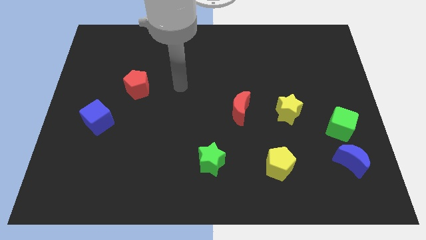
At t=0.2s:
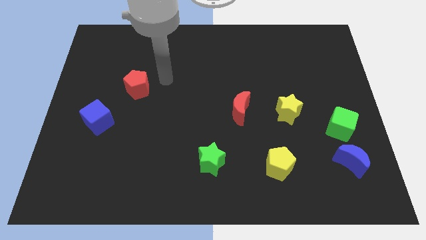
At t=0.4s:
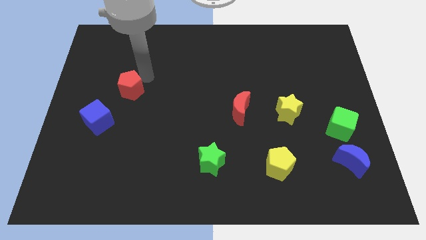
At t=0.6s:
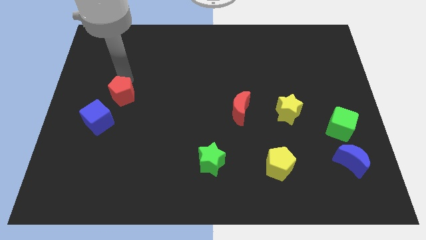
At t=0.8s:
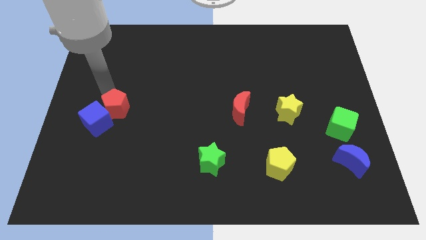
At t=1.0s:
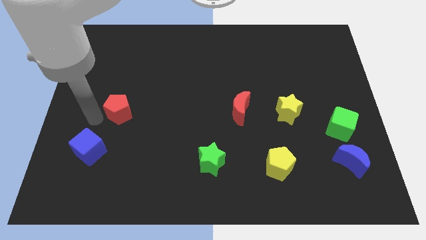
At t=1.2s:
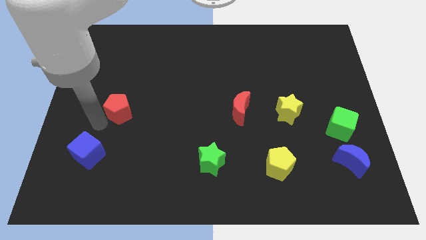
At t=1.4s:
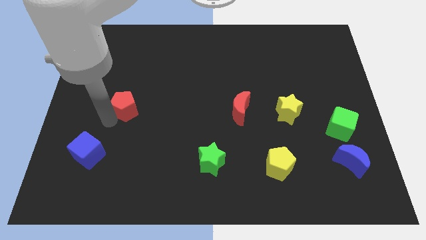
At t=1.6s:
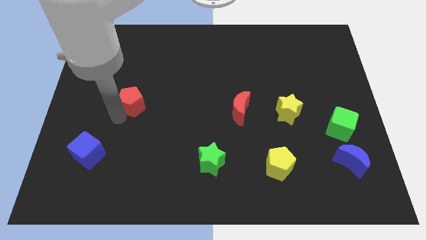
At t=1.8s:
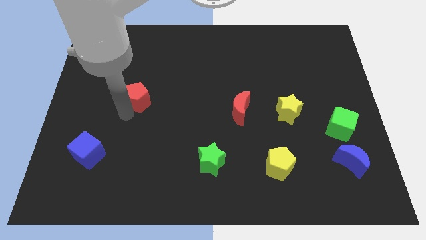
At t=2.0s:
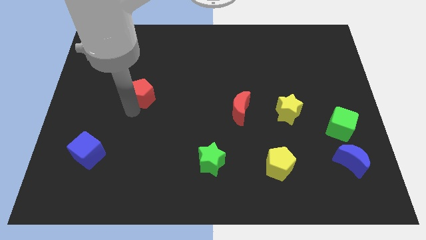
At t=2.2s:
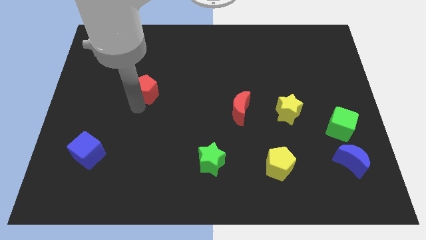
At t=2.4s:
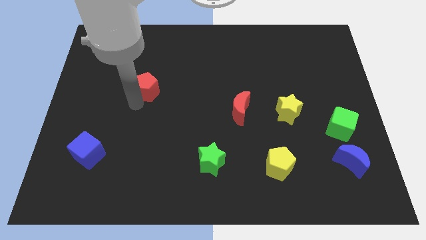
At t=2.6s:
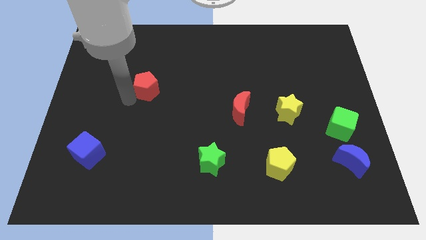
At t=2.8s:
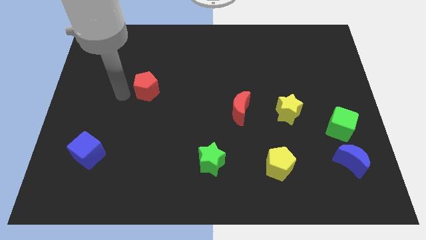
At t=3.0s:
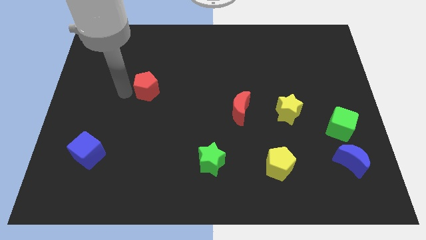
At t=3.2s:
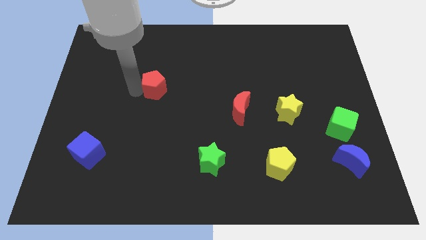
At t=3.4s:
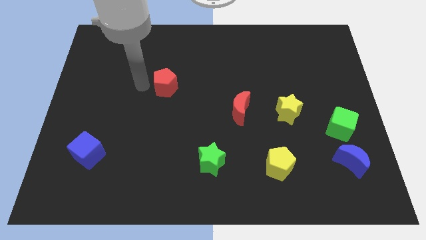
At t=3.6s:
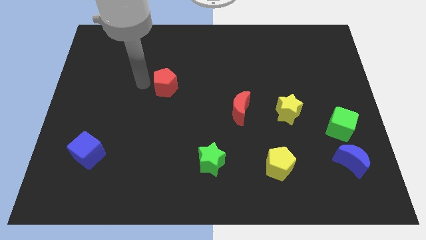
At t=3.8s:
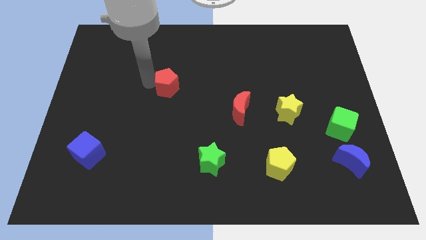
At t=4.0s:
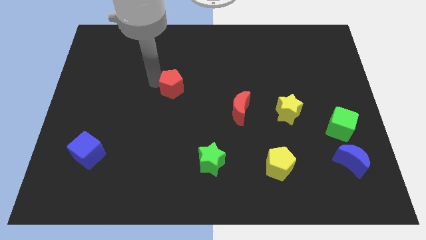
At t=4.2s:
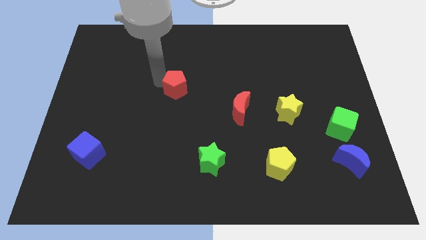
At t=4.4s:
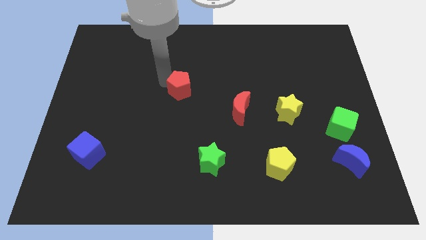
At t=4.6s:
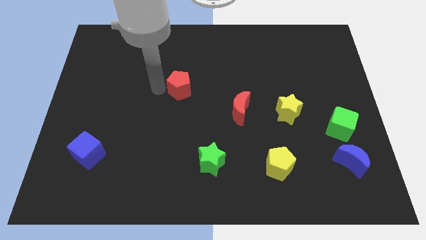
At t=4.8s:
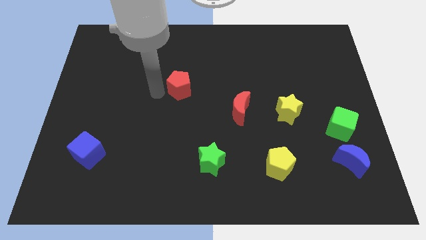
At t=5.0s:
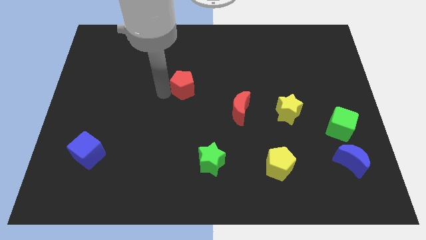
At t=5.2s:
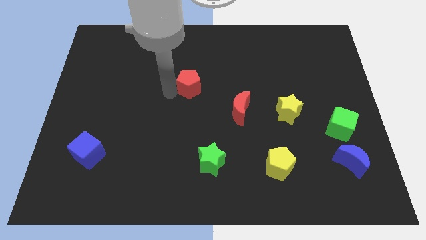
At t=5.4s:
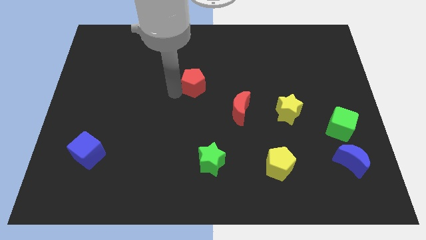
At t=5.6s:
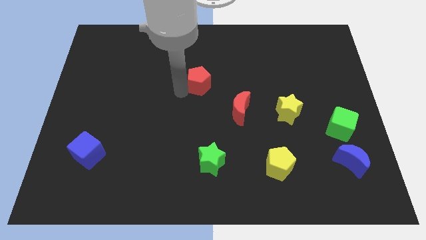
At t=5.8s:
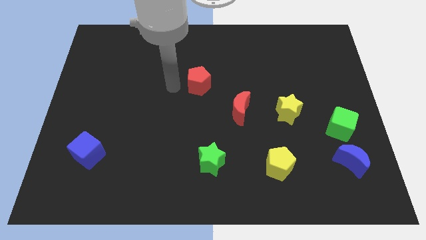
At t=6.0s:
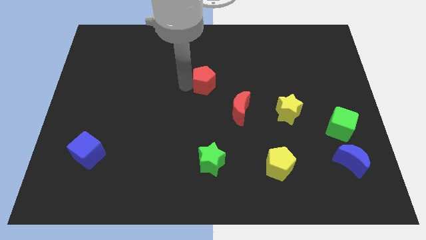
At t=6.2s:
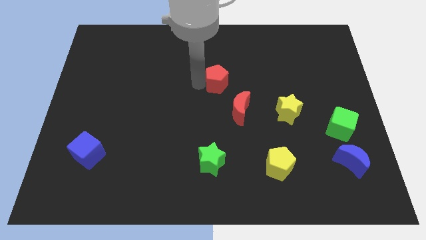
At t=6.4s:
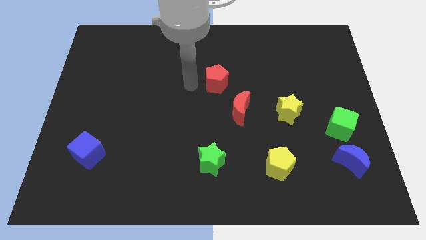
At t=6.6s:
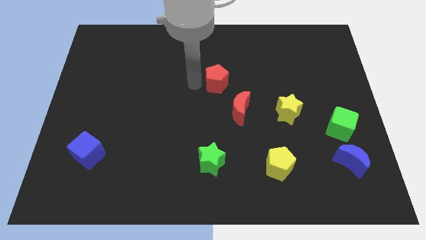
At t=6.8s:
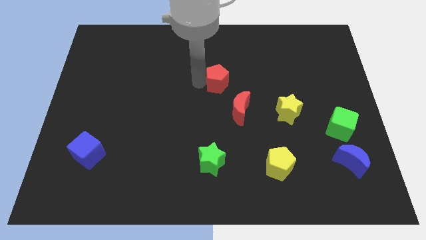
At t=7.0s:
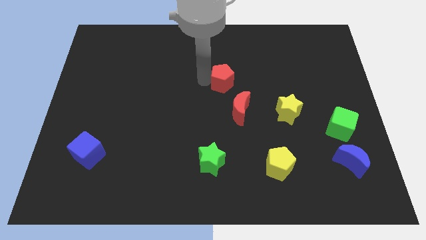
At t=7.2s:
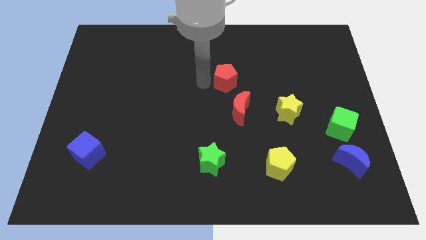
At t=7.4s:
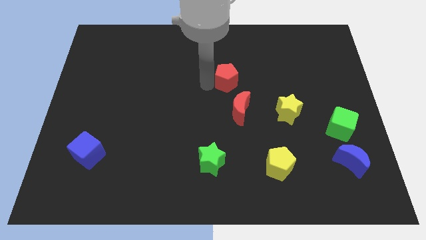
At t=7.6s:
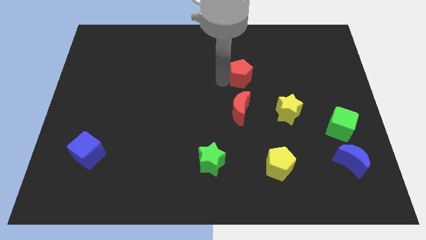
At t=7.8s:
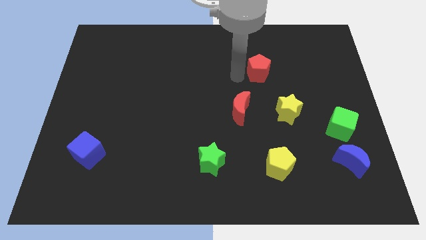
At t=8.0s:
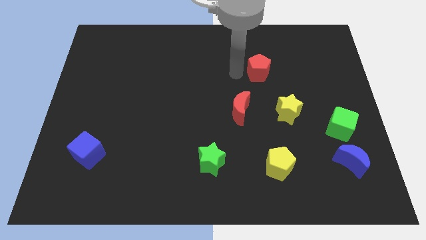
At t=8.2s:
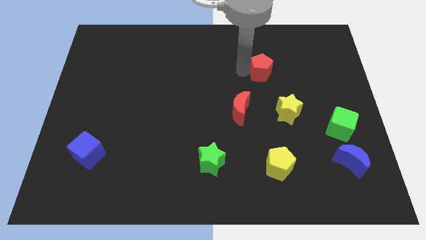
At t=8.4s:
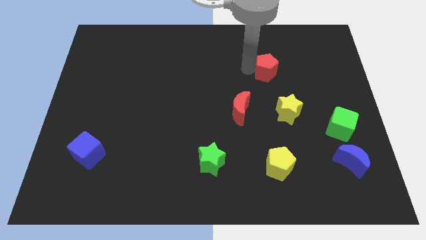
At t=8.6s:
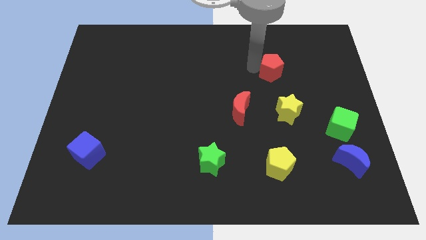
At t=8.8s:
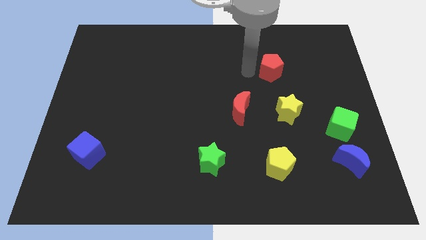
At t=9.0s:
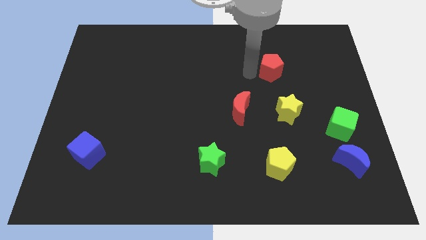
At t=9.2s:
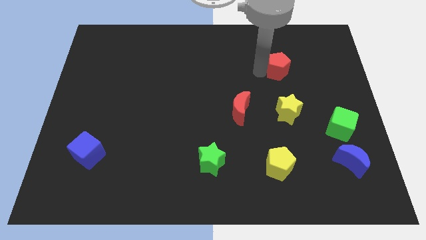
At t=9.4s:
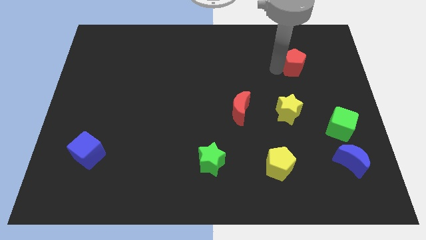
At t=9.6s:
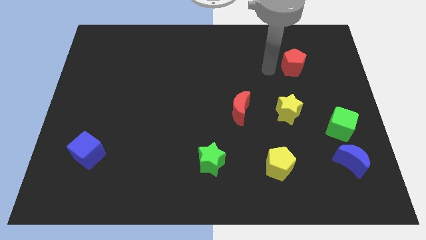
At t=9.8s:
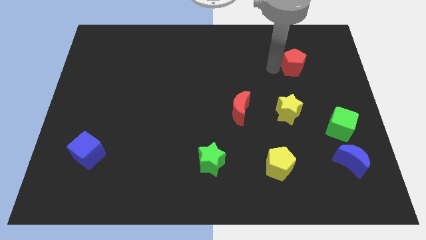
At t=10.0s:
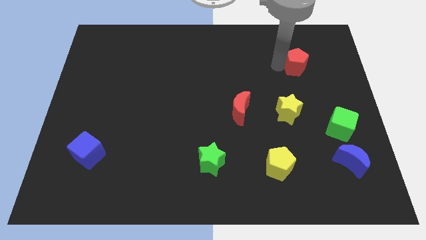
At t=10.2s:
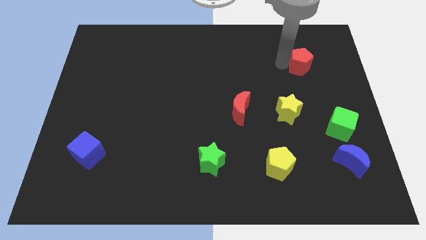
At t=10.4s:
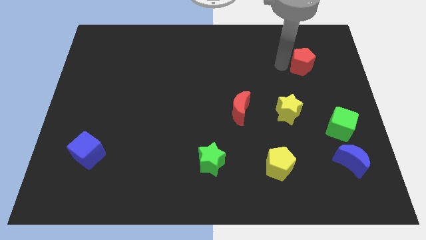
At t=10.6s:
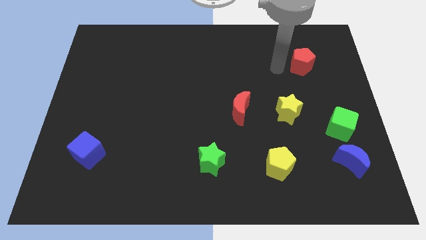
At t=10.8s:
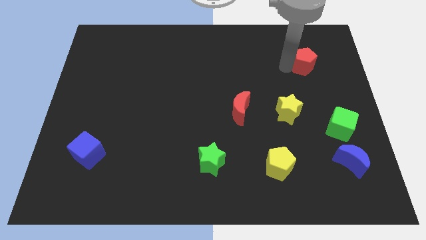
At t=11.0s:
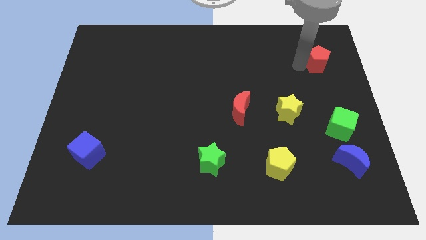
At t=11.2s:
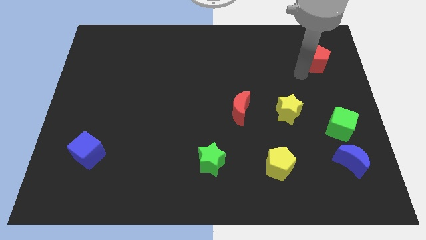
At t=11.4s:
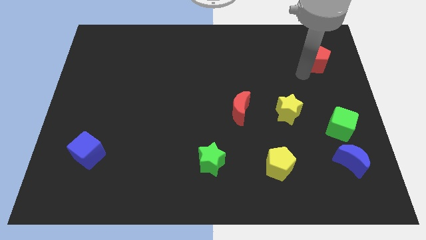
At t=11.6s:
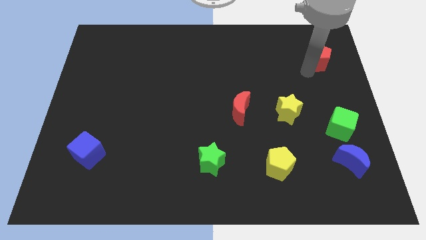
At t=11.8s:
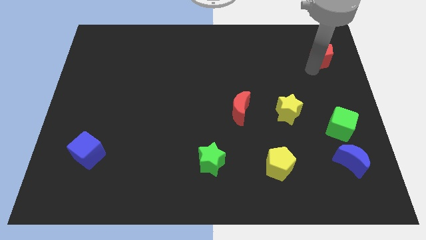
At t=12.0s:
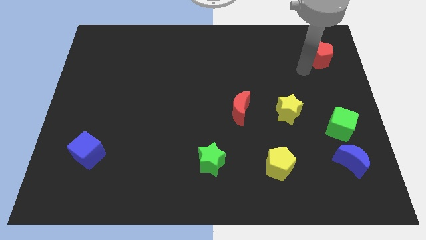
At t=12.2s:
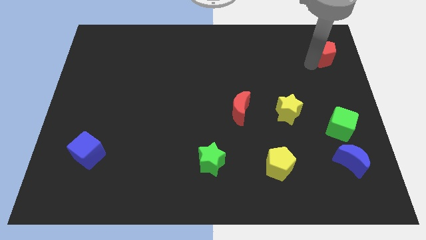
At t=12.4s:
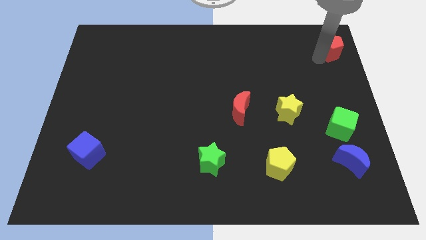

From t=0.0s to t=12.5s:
push the red pentagon to the upper right corner

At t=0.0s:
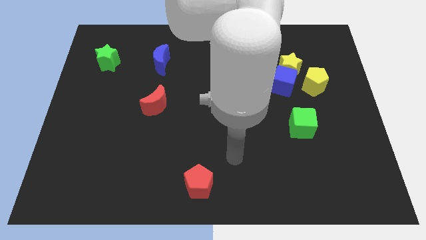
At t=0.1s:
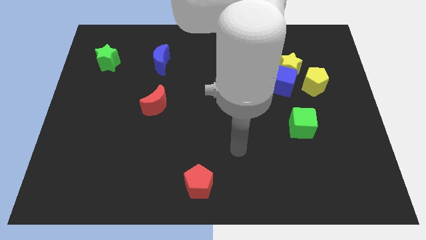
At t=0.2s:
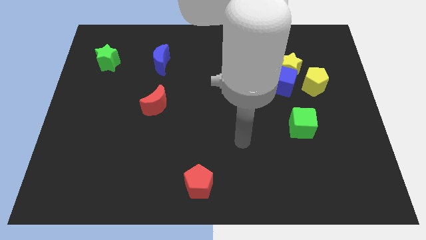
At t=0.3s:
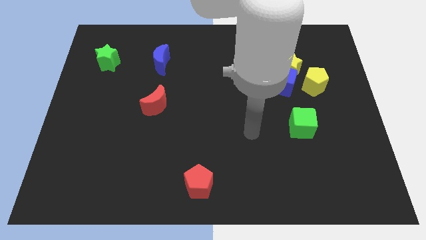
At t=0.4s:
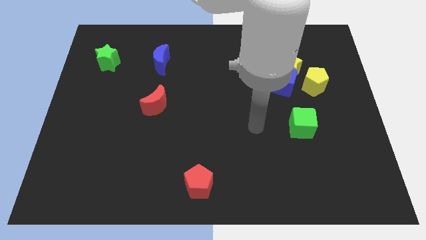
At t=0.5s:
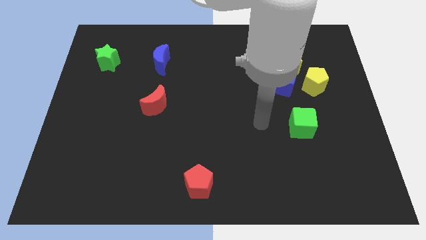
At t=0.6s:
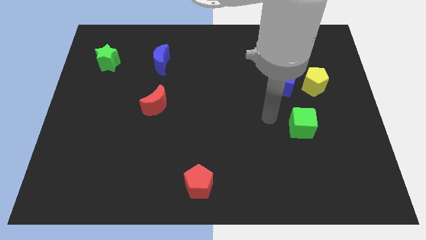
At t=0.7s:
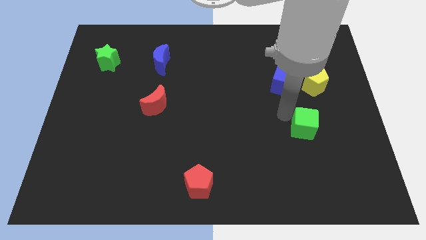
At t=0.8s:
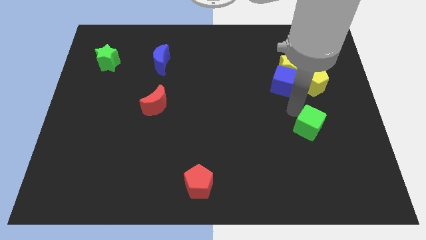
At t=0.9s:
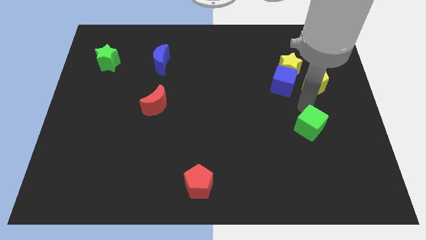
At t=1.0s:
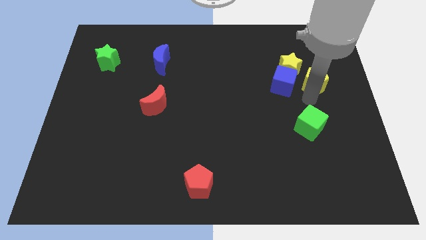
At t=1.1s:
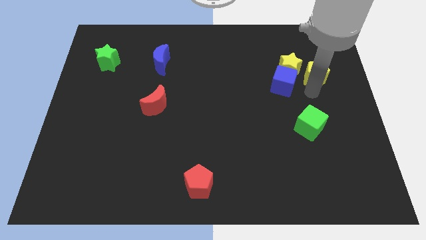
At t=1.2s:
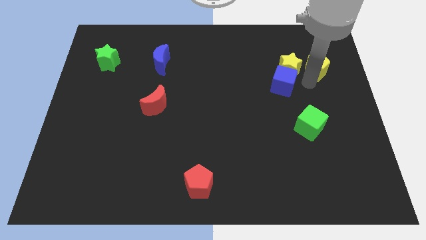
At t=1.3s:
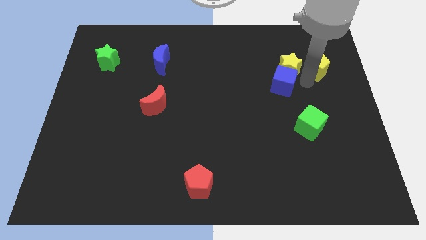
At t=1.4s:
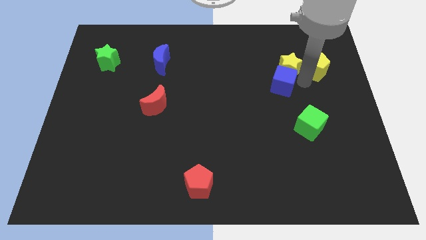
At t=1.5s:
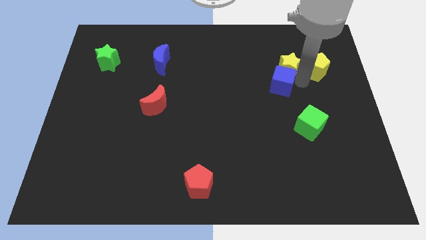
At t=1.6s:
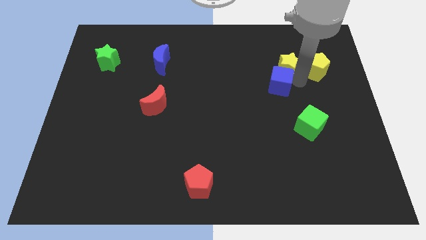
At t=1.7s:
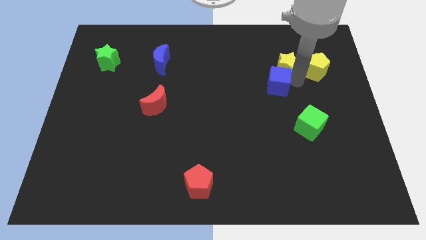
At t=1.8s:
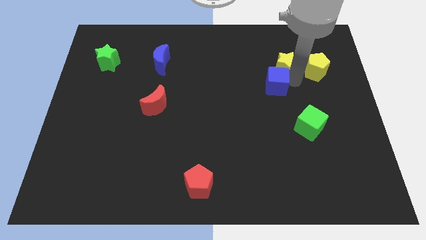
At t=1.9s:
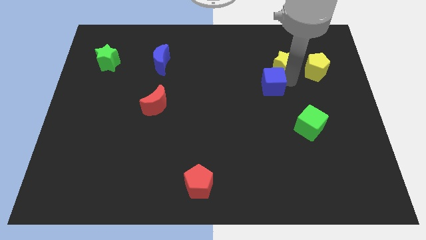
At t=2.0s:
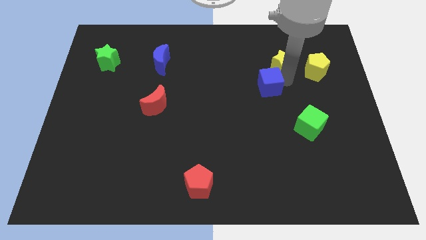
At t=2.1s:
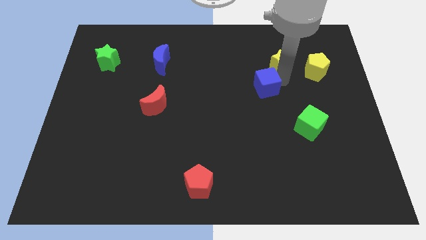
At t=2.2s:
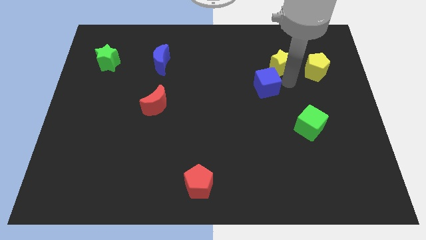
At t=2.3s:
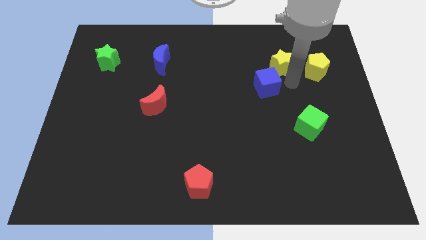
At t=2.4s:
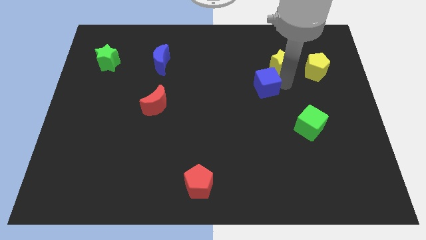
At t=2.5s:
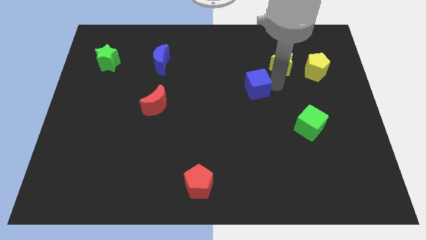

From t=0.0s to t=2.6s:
put the blue cube to the middle of the board
